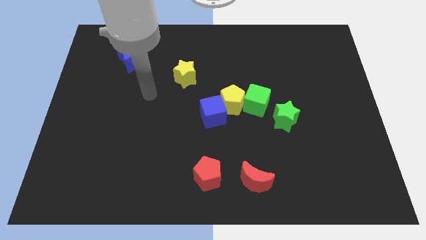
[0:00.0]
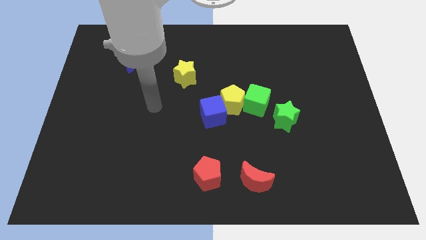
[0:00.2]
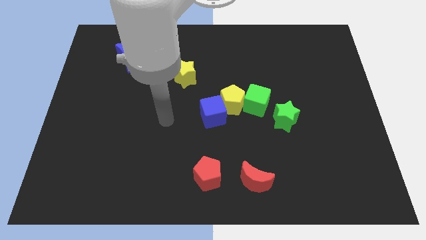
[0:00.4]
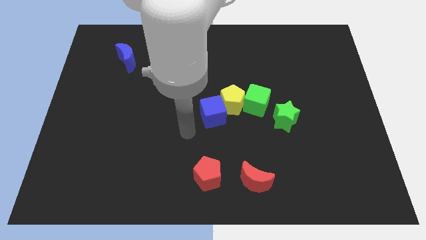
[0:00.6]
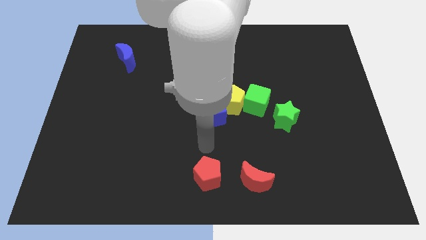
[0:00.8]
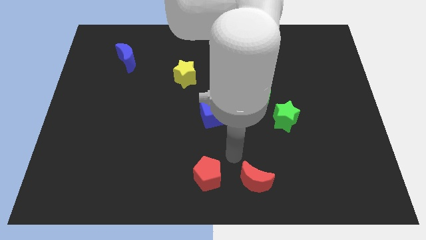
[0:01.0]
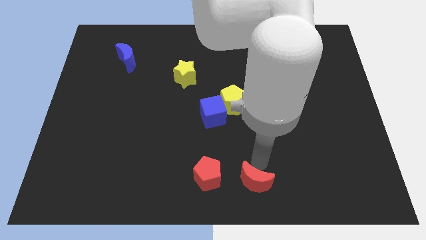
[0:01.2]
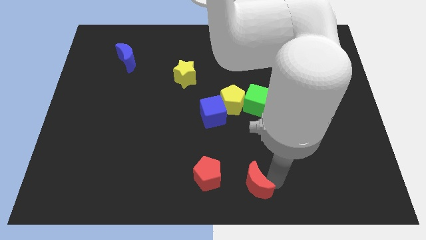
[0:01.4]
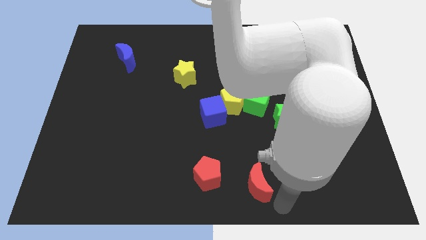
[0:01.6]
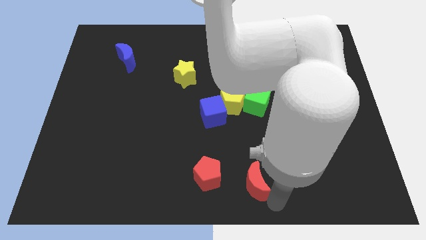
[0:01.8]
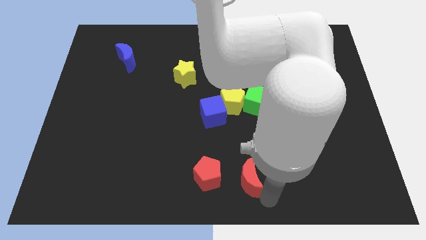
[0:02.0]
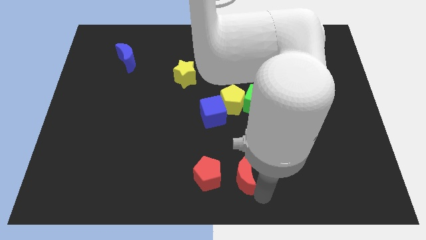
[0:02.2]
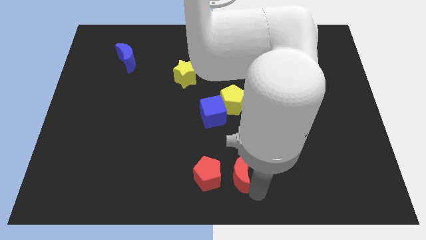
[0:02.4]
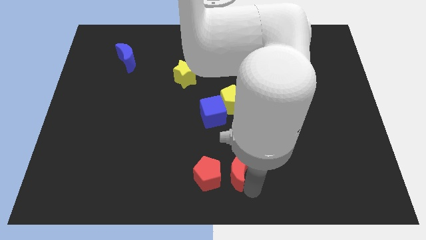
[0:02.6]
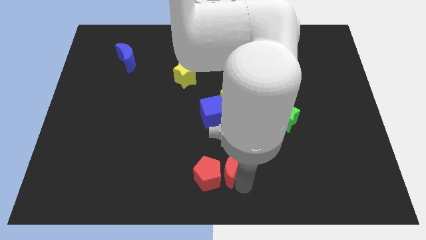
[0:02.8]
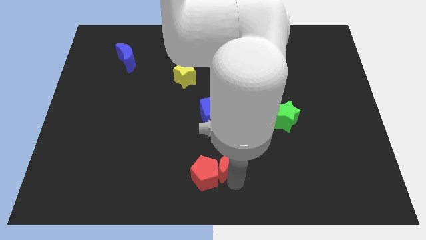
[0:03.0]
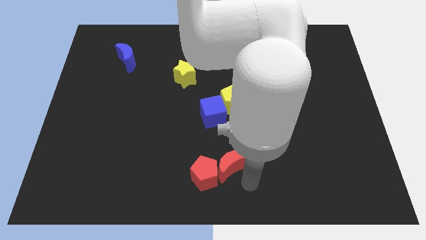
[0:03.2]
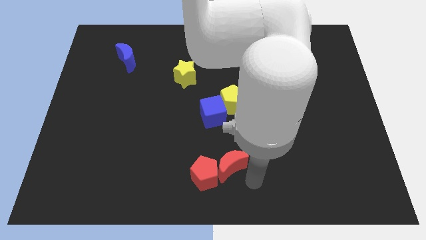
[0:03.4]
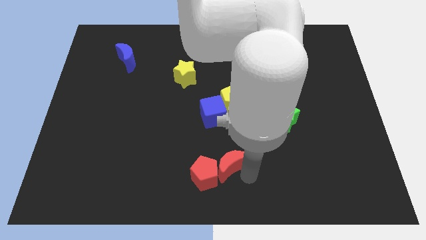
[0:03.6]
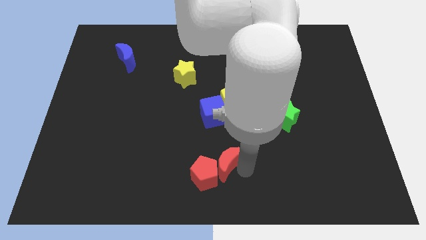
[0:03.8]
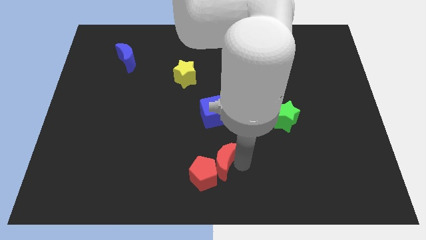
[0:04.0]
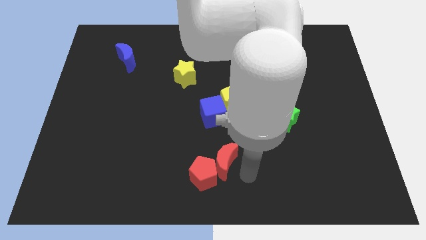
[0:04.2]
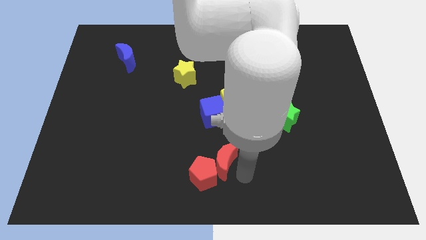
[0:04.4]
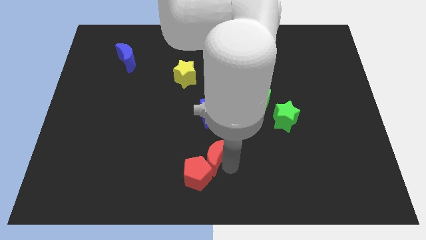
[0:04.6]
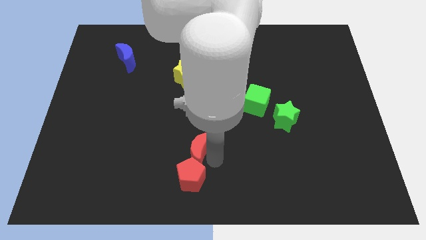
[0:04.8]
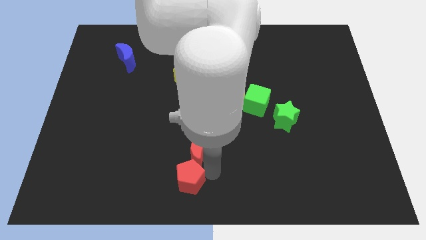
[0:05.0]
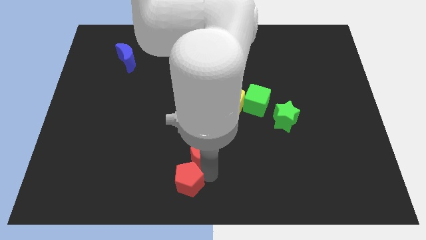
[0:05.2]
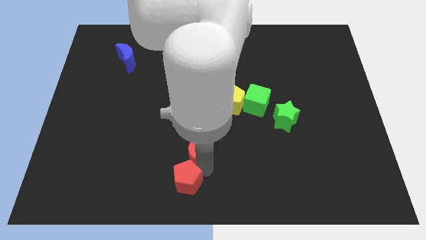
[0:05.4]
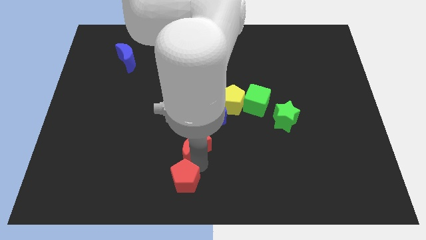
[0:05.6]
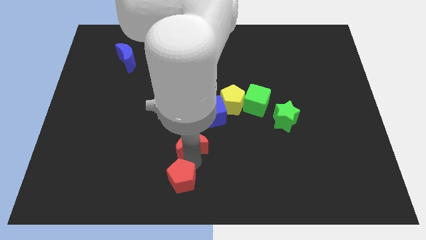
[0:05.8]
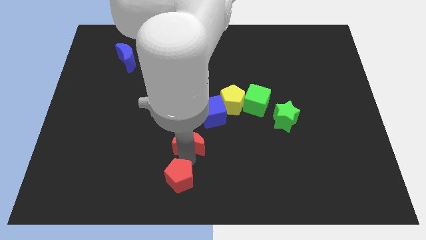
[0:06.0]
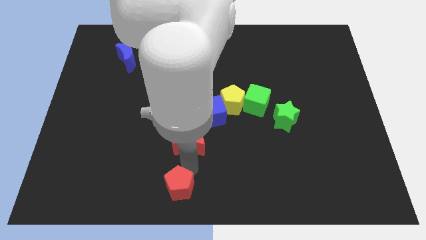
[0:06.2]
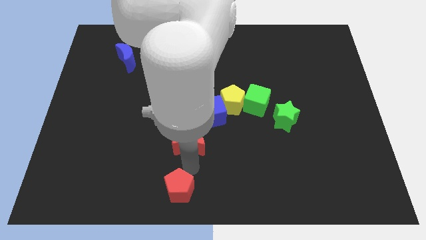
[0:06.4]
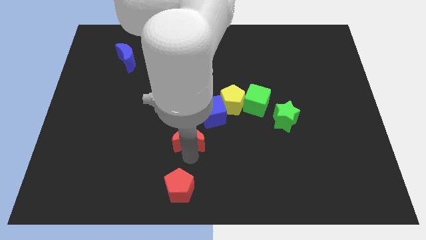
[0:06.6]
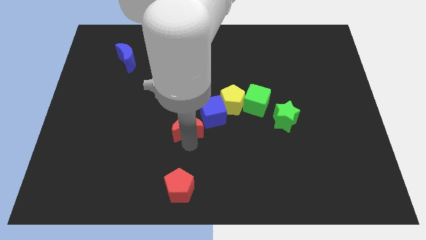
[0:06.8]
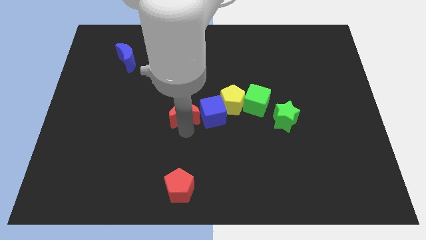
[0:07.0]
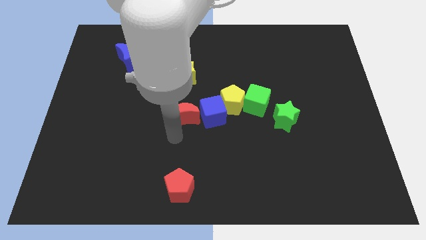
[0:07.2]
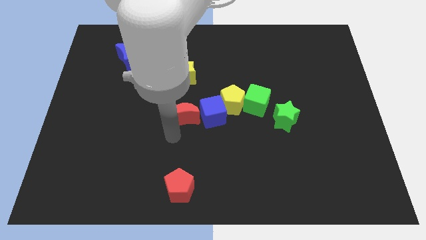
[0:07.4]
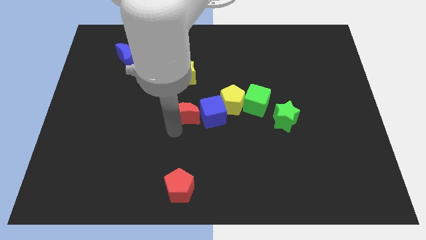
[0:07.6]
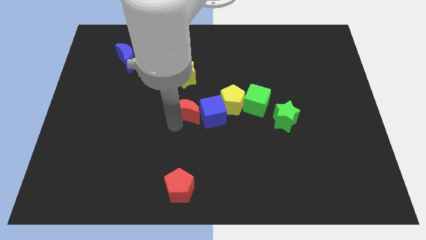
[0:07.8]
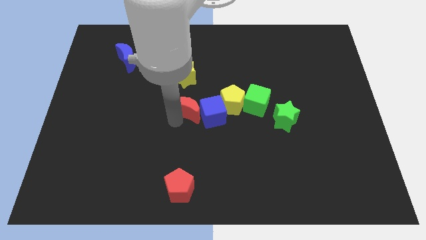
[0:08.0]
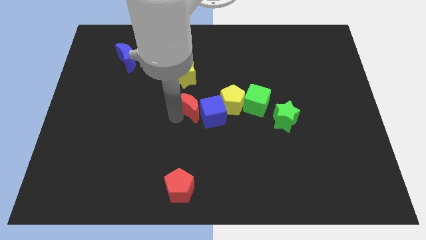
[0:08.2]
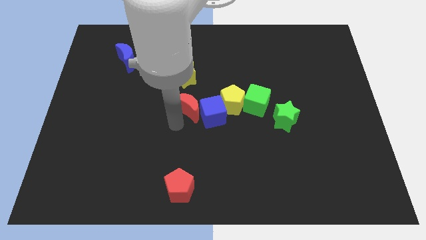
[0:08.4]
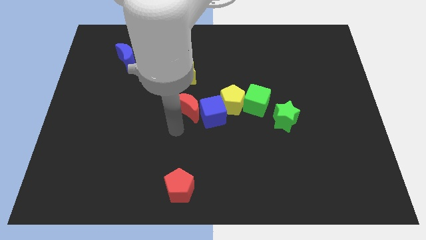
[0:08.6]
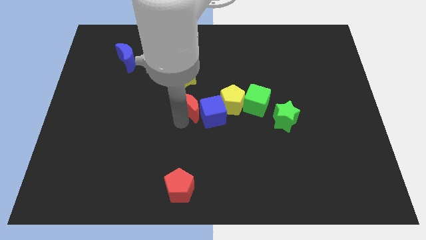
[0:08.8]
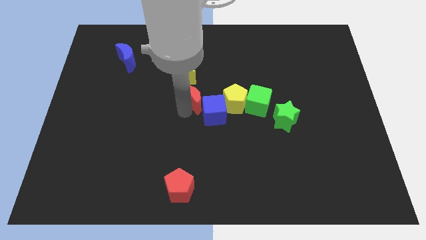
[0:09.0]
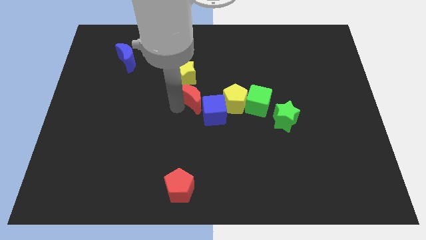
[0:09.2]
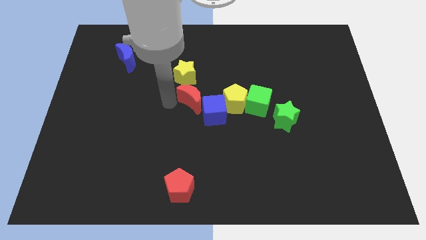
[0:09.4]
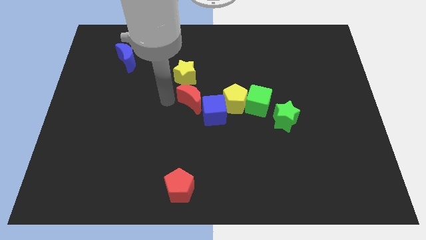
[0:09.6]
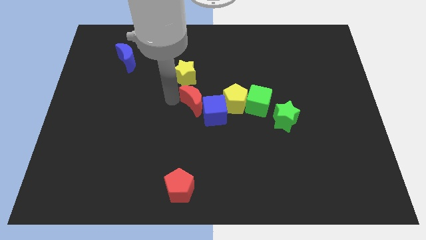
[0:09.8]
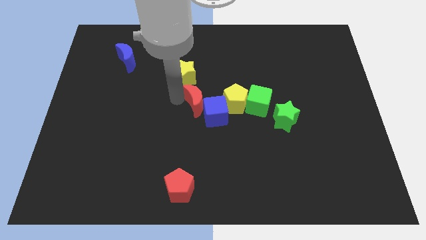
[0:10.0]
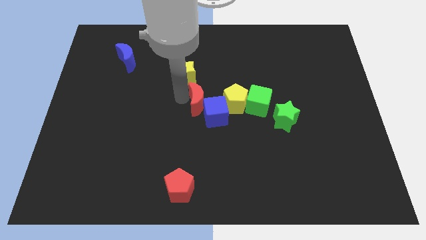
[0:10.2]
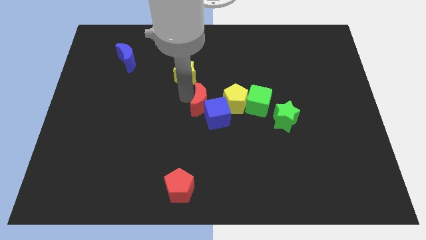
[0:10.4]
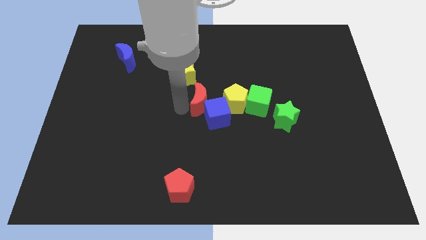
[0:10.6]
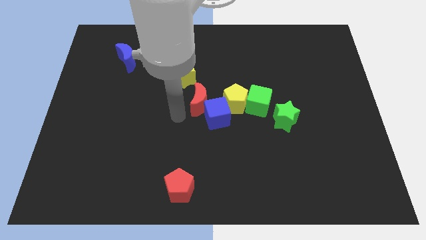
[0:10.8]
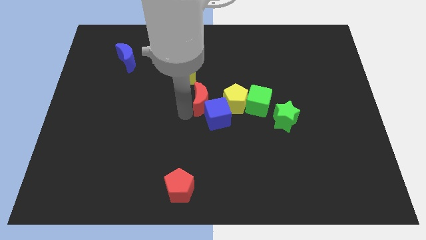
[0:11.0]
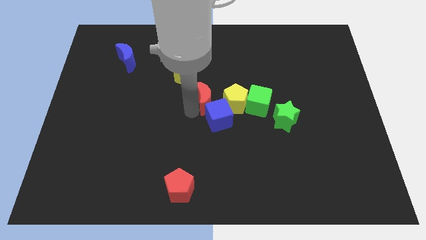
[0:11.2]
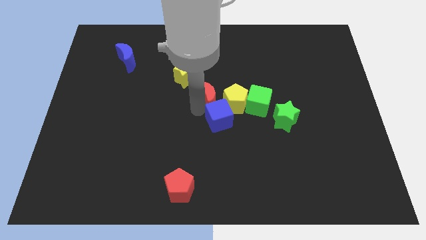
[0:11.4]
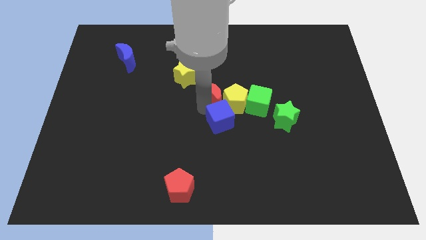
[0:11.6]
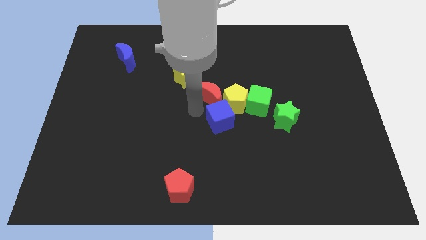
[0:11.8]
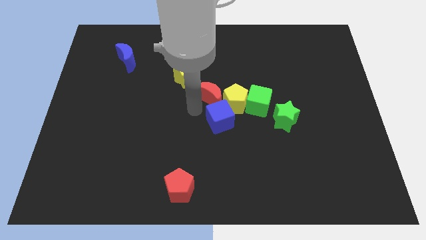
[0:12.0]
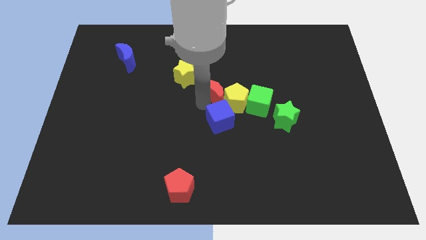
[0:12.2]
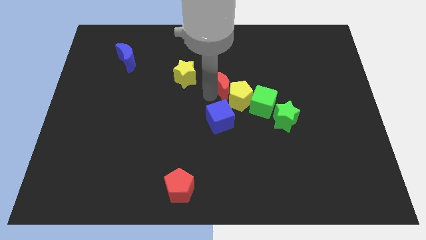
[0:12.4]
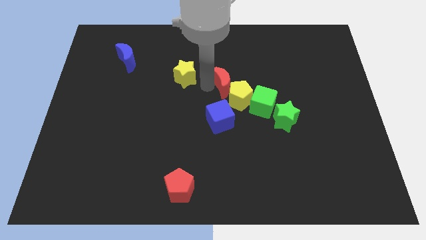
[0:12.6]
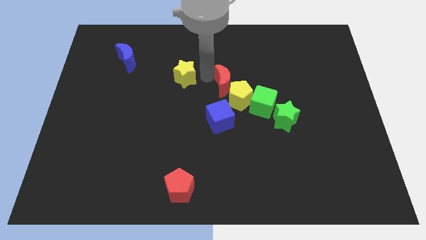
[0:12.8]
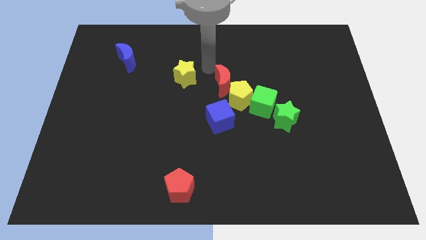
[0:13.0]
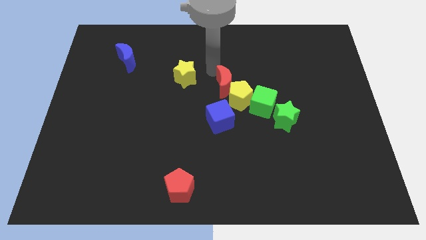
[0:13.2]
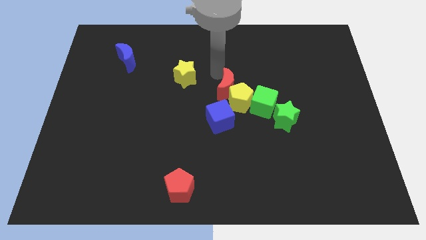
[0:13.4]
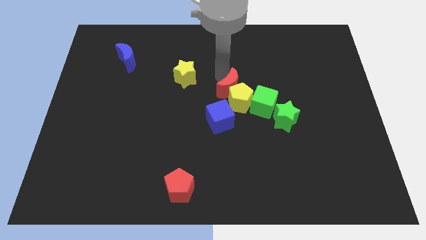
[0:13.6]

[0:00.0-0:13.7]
put the red moon to the top right side of the blue cube
